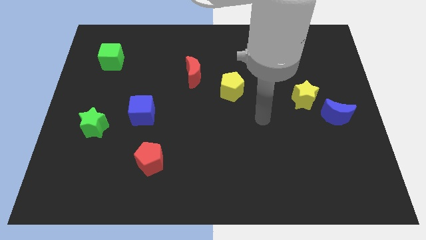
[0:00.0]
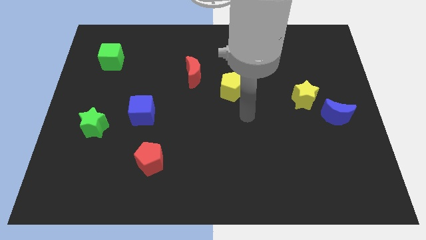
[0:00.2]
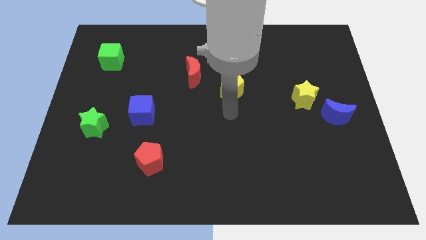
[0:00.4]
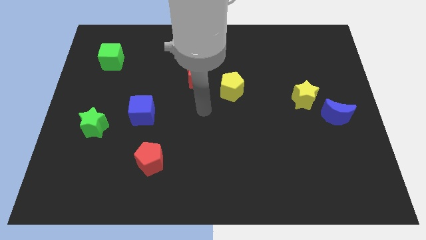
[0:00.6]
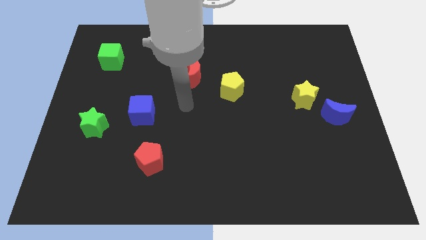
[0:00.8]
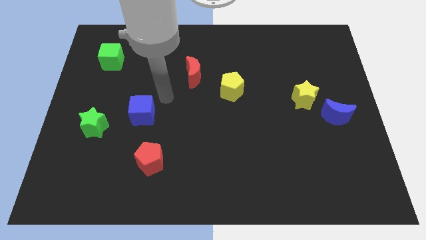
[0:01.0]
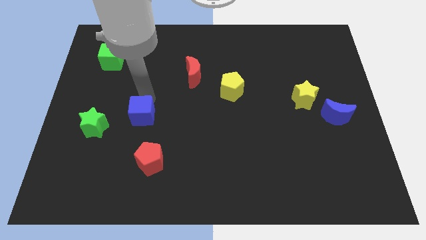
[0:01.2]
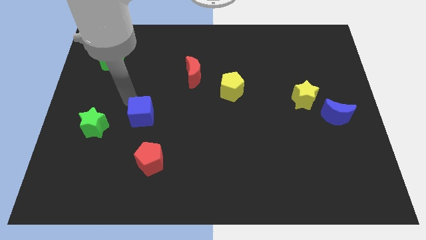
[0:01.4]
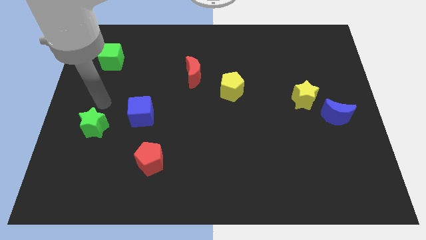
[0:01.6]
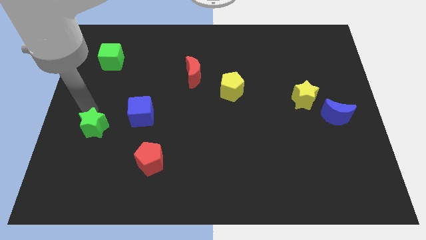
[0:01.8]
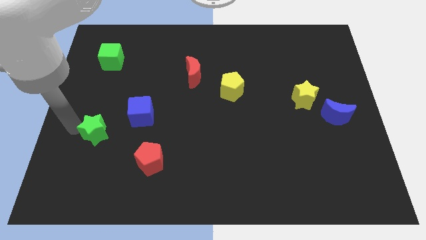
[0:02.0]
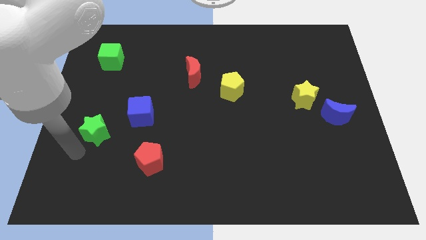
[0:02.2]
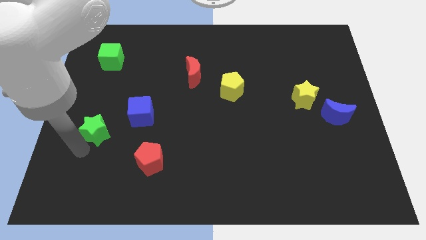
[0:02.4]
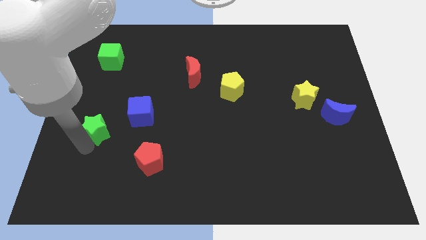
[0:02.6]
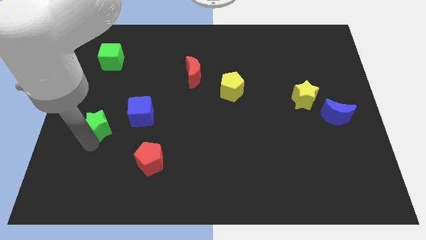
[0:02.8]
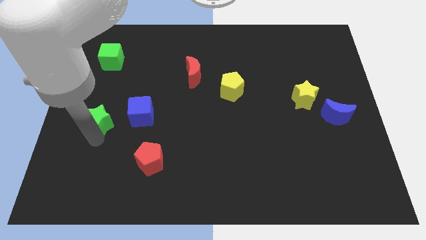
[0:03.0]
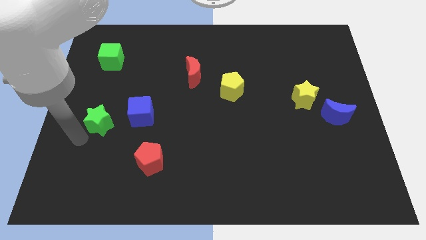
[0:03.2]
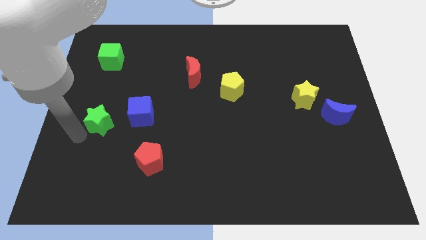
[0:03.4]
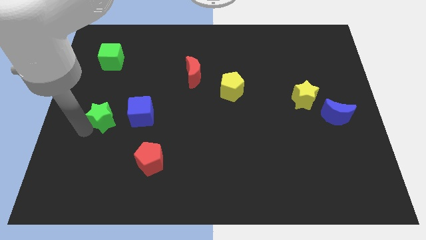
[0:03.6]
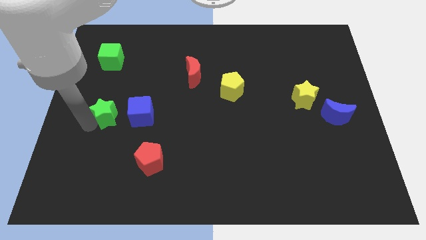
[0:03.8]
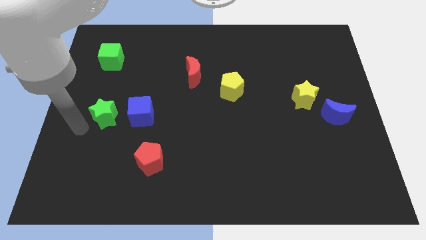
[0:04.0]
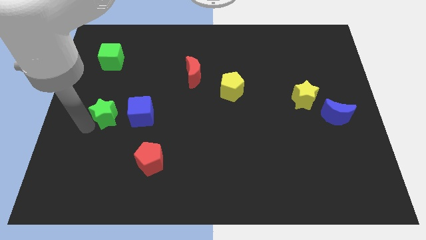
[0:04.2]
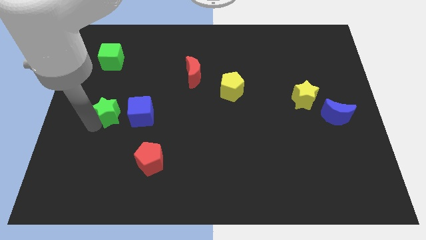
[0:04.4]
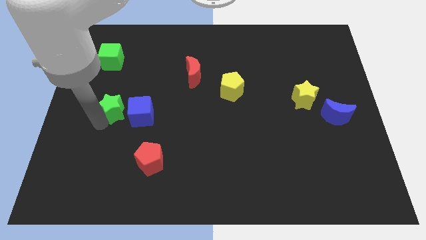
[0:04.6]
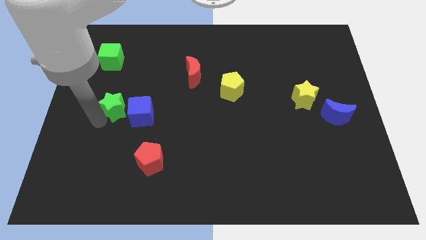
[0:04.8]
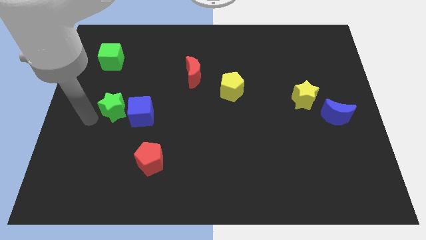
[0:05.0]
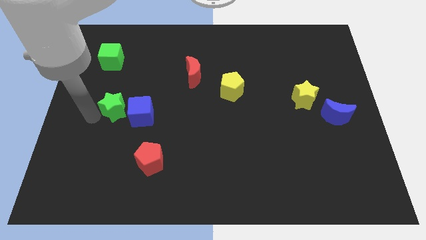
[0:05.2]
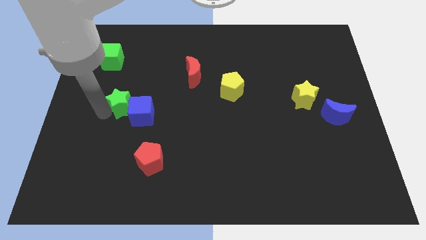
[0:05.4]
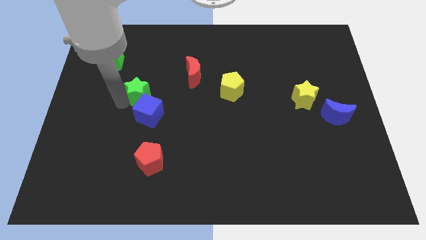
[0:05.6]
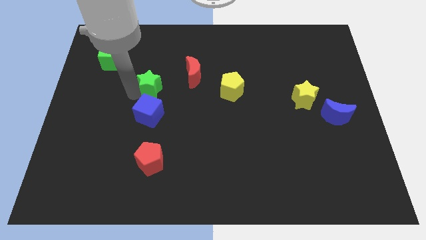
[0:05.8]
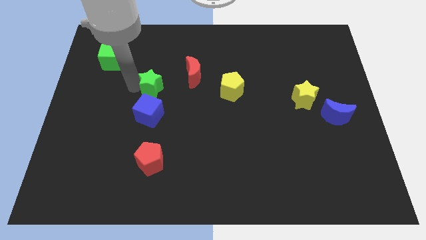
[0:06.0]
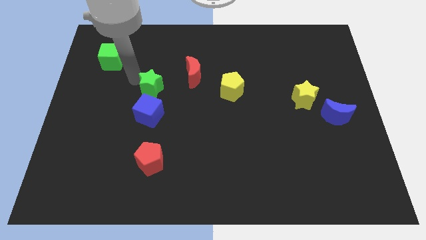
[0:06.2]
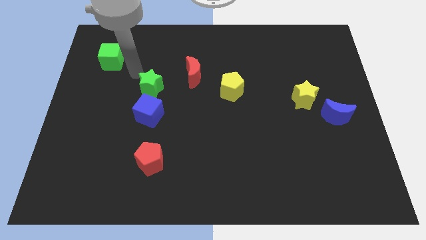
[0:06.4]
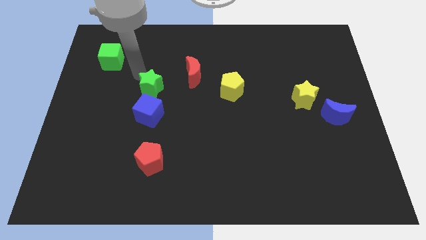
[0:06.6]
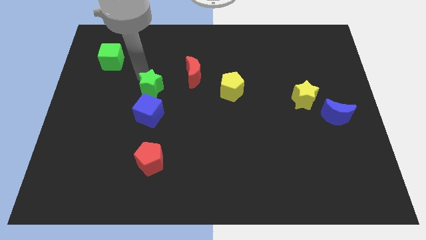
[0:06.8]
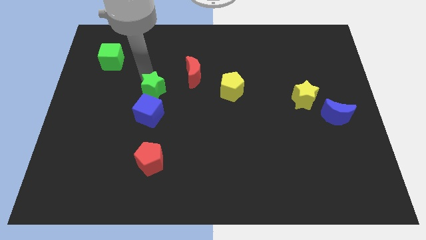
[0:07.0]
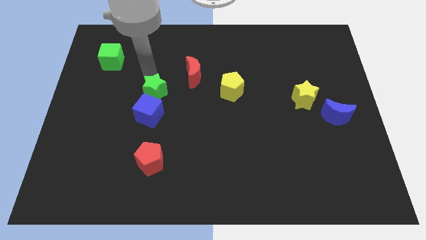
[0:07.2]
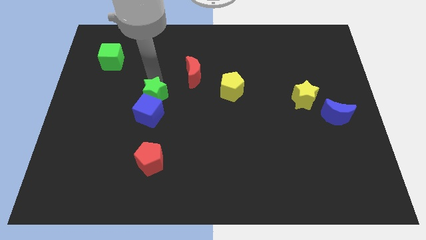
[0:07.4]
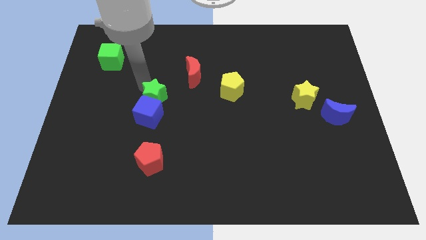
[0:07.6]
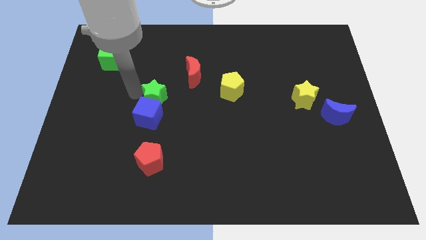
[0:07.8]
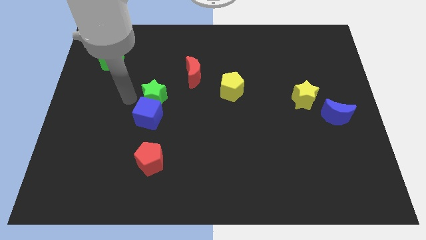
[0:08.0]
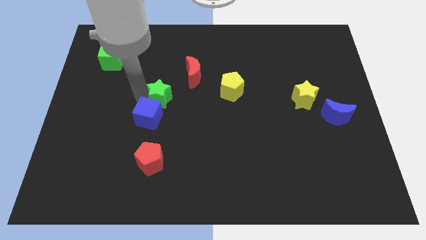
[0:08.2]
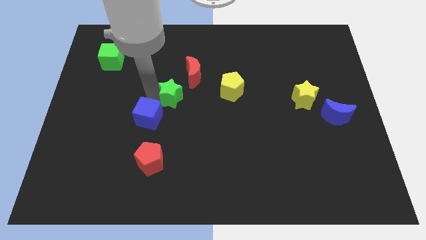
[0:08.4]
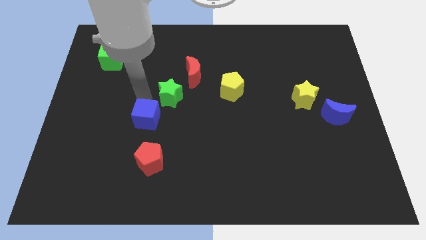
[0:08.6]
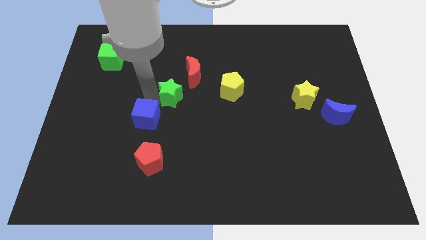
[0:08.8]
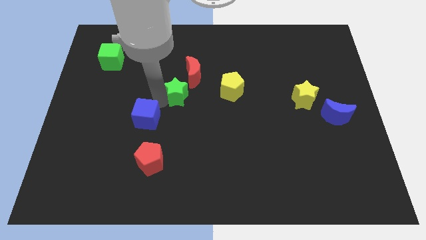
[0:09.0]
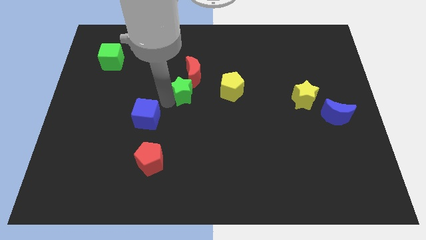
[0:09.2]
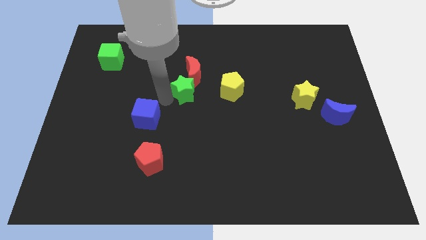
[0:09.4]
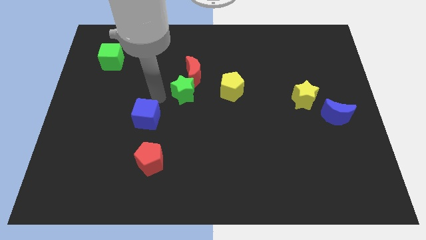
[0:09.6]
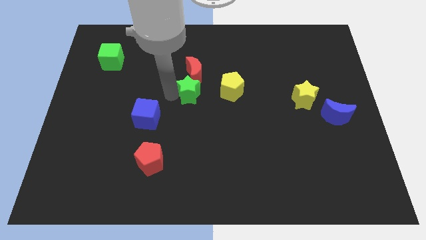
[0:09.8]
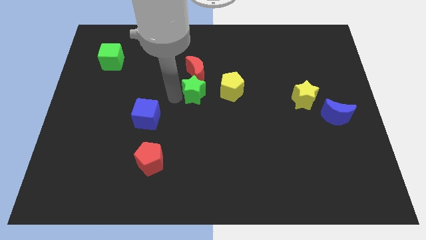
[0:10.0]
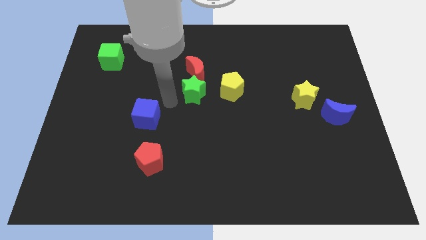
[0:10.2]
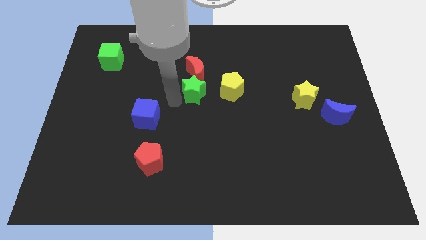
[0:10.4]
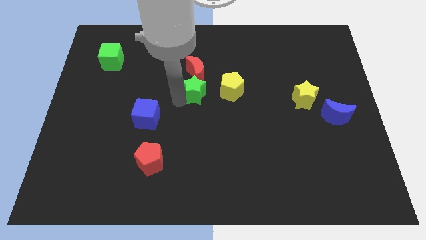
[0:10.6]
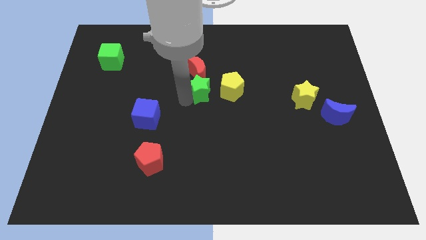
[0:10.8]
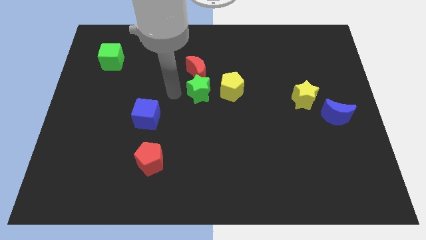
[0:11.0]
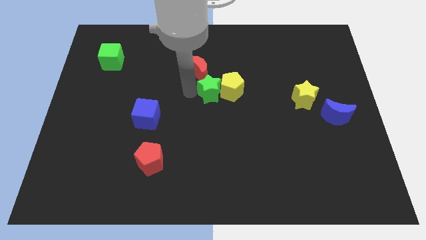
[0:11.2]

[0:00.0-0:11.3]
slide the green star close to the yellow pentagon
